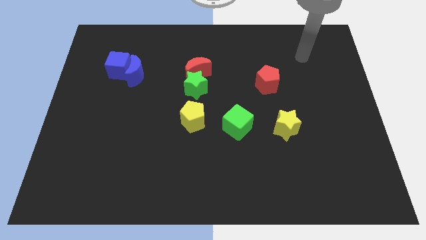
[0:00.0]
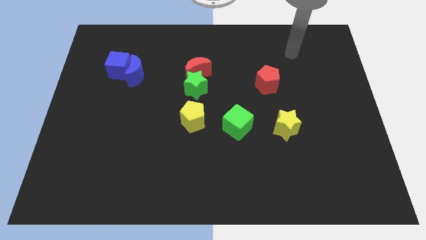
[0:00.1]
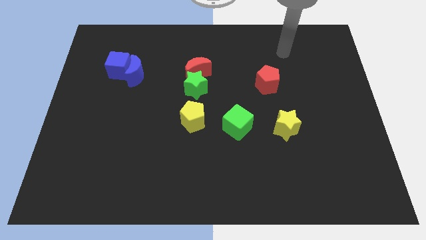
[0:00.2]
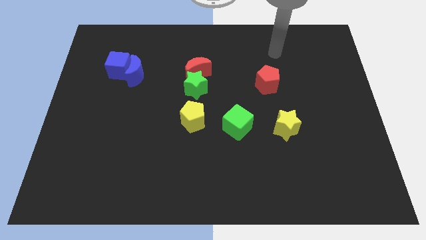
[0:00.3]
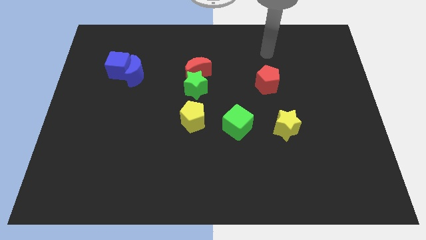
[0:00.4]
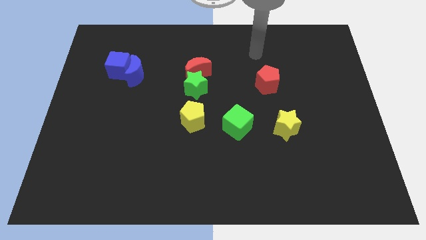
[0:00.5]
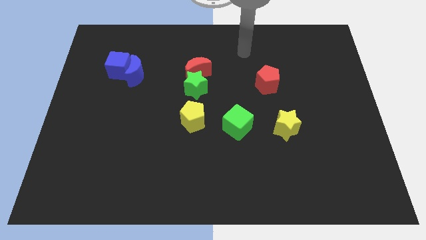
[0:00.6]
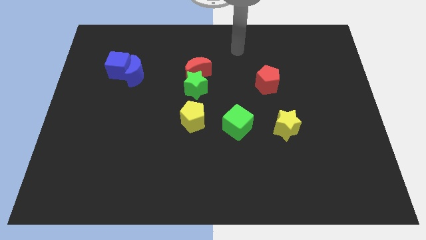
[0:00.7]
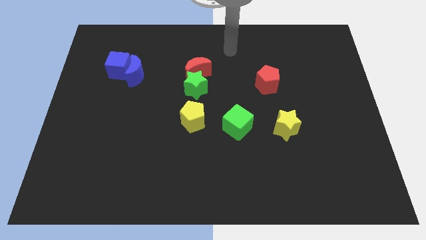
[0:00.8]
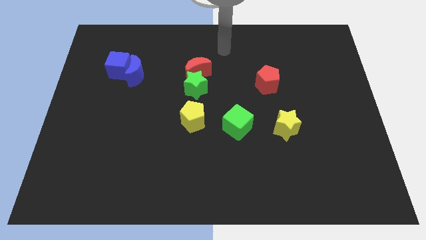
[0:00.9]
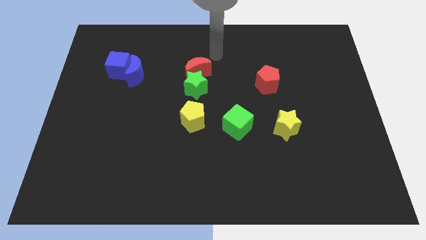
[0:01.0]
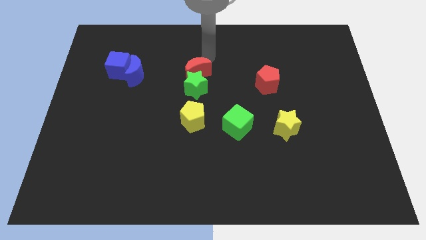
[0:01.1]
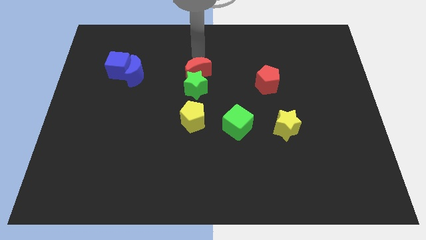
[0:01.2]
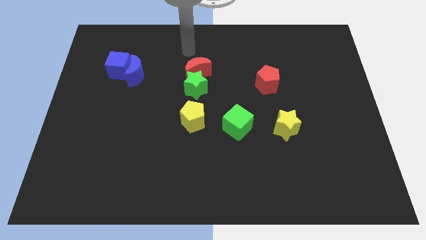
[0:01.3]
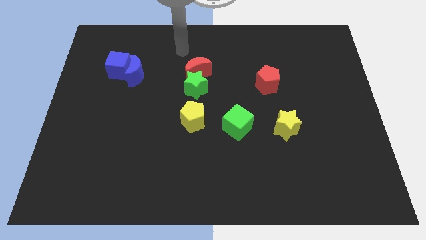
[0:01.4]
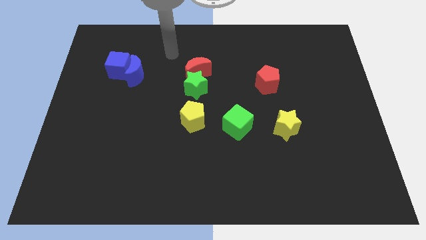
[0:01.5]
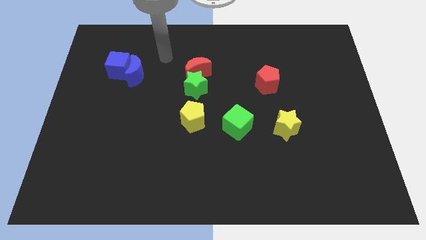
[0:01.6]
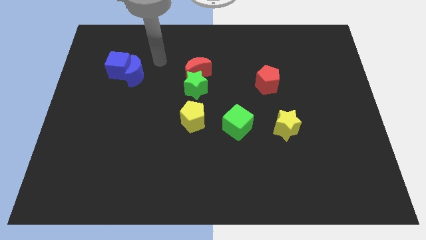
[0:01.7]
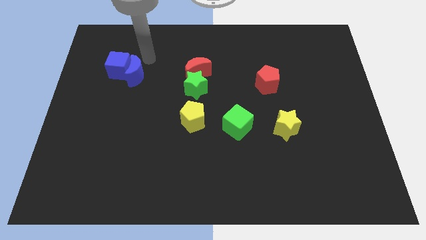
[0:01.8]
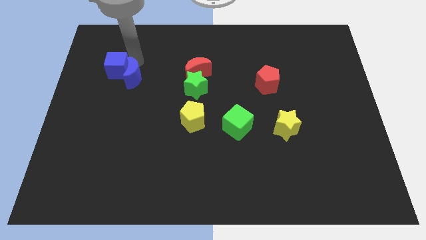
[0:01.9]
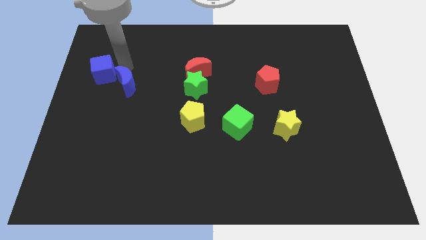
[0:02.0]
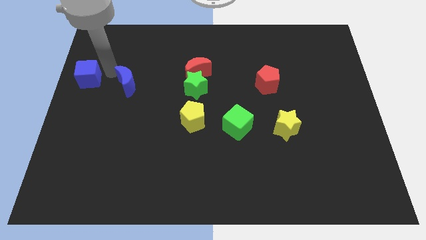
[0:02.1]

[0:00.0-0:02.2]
move the blue moon away from the blue cube

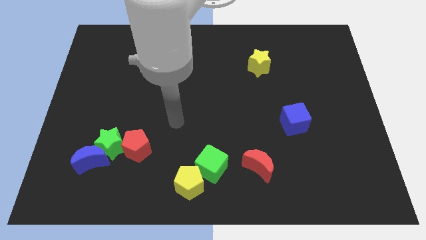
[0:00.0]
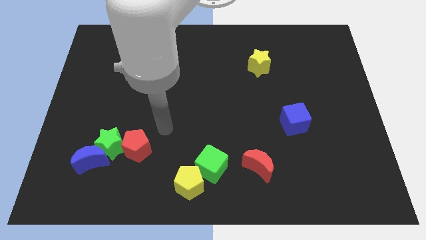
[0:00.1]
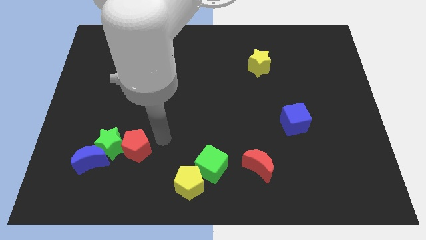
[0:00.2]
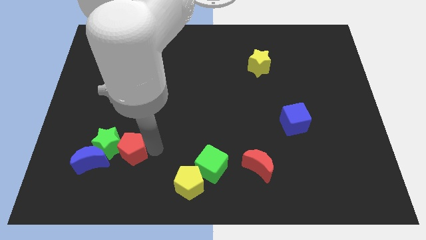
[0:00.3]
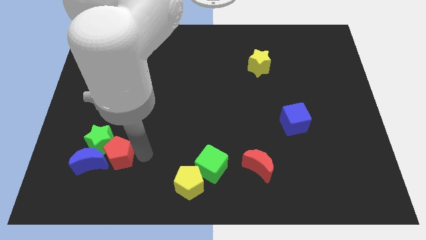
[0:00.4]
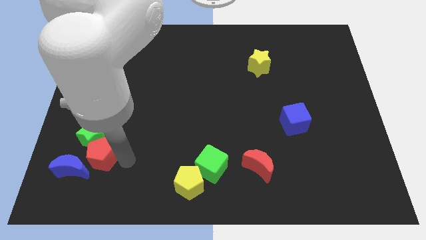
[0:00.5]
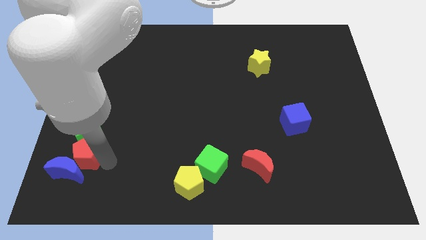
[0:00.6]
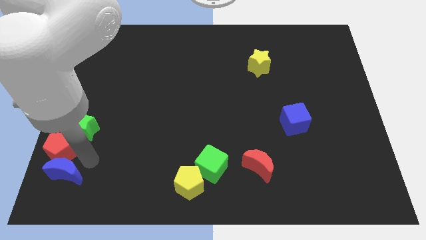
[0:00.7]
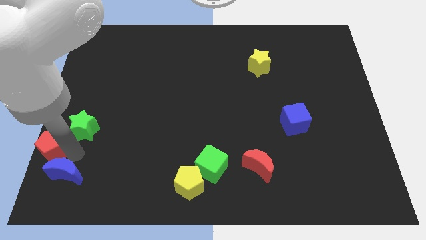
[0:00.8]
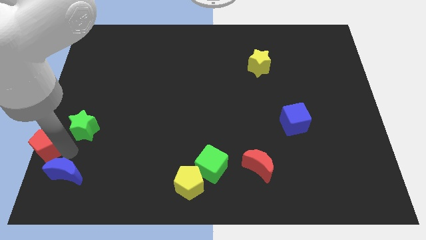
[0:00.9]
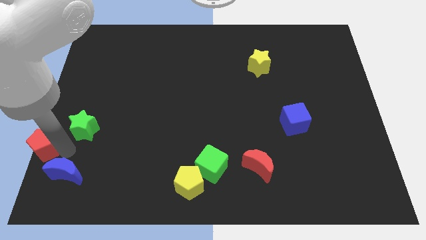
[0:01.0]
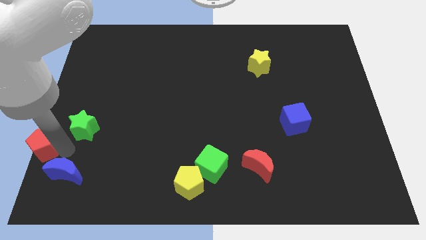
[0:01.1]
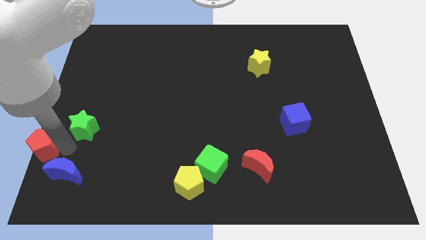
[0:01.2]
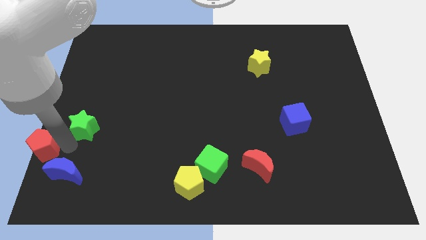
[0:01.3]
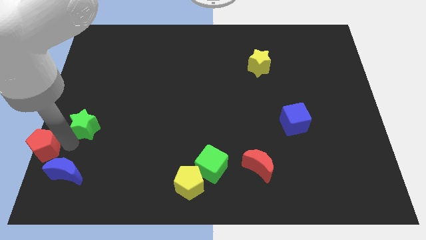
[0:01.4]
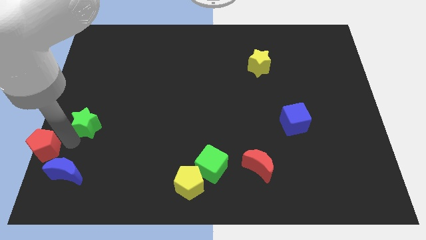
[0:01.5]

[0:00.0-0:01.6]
move the green star away from the blue moon and red pentagon

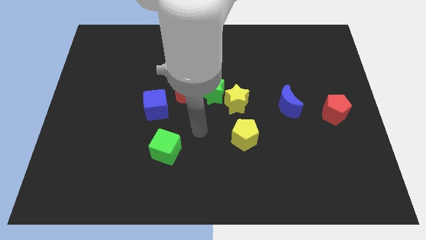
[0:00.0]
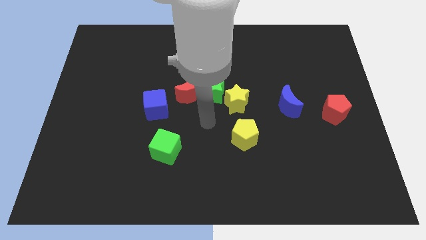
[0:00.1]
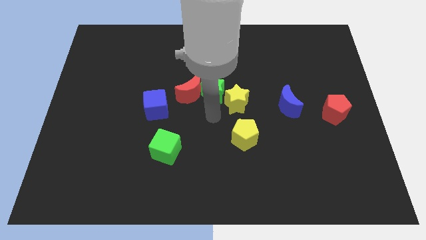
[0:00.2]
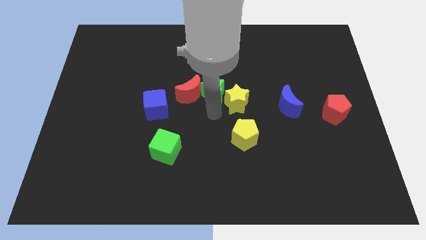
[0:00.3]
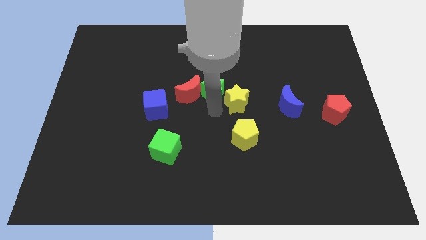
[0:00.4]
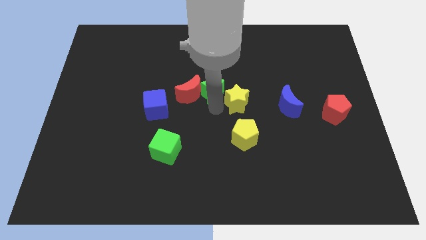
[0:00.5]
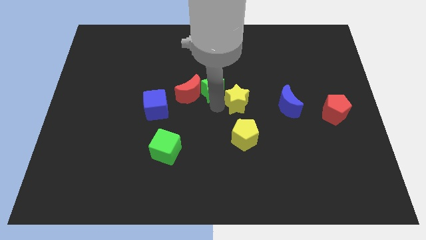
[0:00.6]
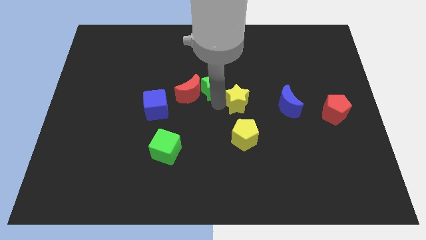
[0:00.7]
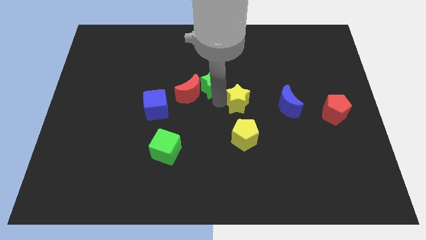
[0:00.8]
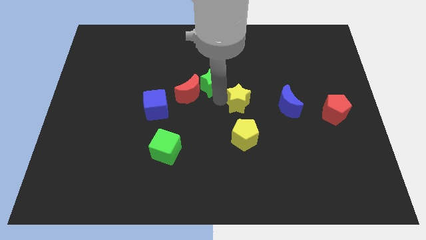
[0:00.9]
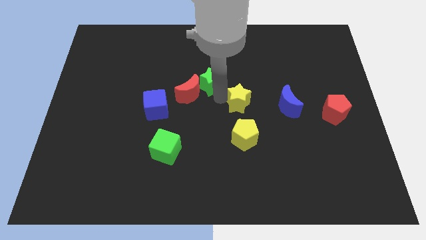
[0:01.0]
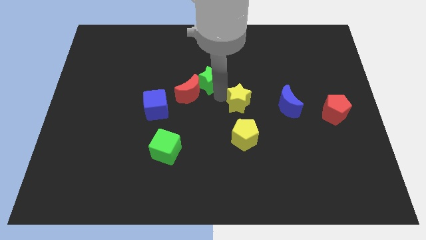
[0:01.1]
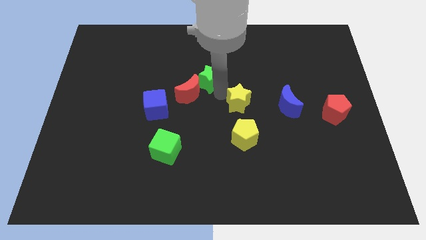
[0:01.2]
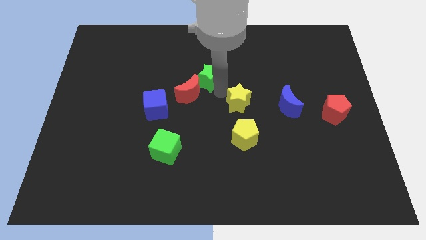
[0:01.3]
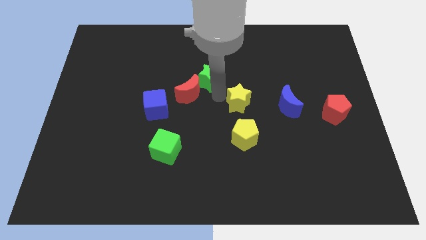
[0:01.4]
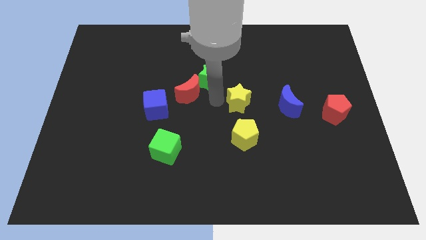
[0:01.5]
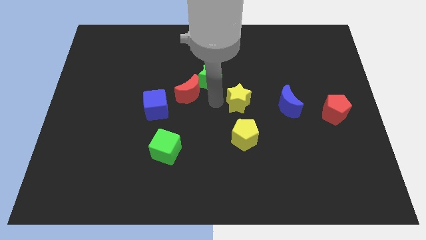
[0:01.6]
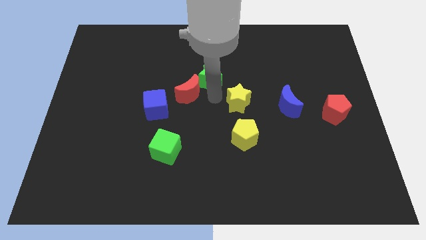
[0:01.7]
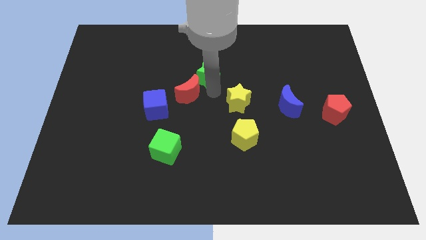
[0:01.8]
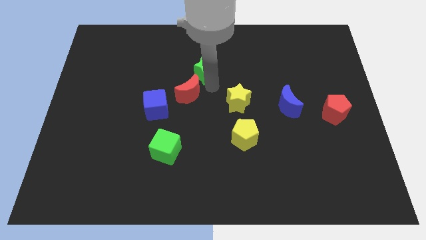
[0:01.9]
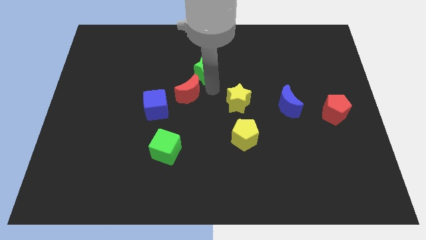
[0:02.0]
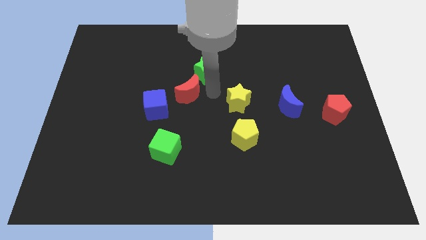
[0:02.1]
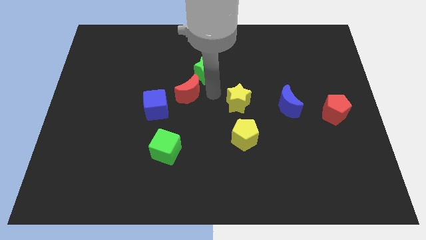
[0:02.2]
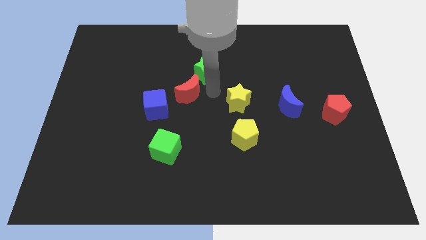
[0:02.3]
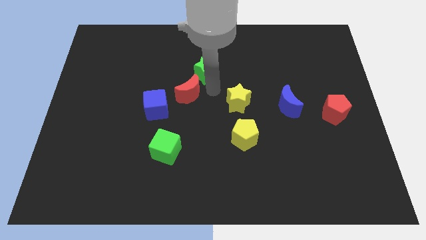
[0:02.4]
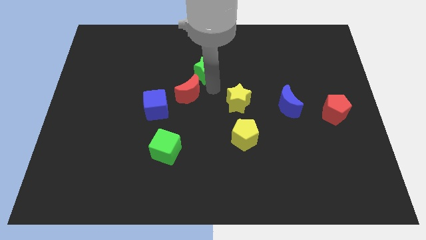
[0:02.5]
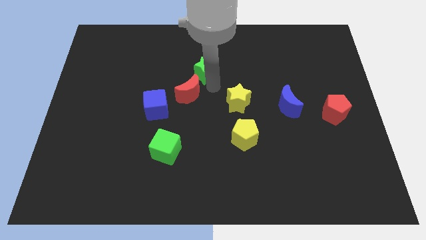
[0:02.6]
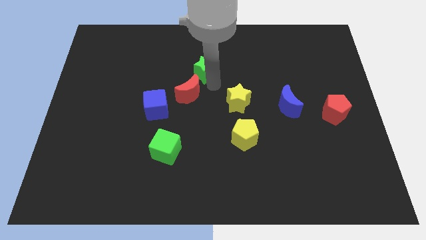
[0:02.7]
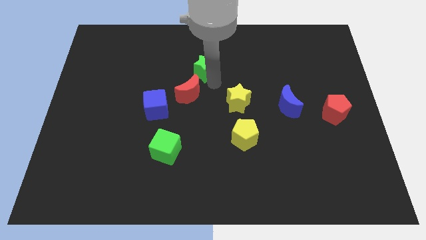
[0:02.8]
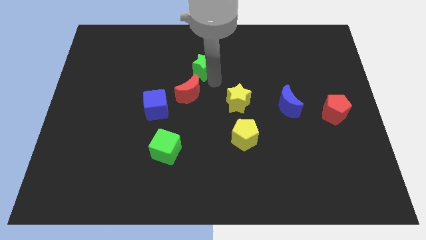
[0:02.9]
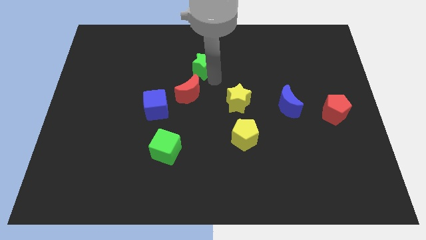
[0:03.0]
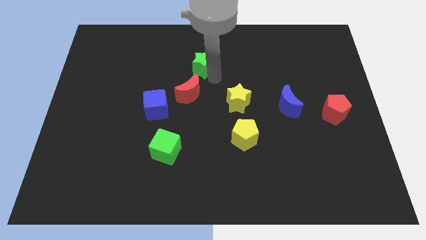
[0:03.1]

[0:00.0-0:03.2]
move the green star away from the red moon and yellow star

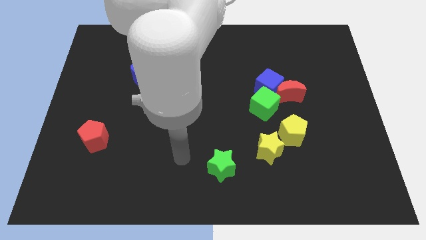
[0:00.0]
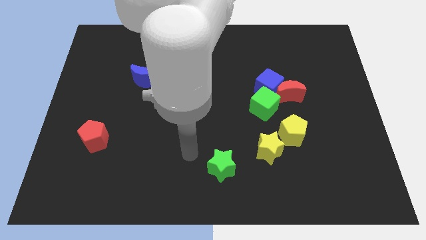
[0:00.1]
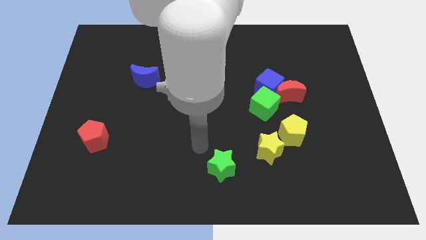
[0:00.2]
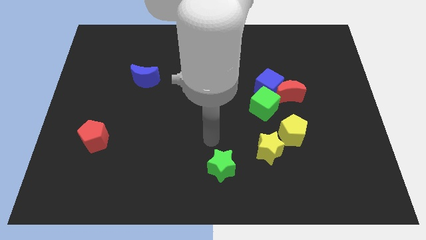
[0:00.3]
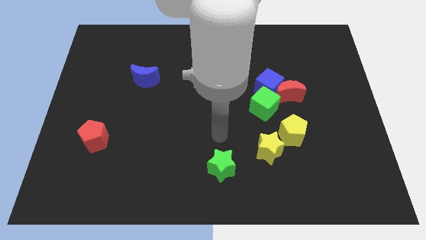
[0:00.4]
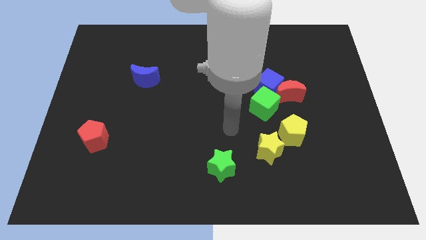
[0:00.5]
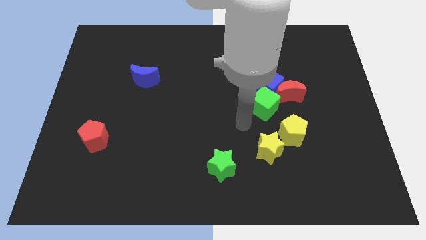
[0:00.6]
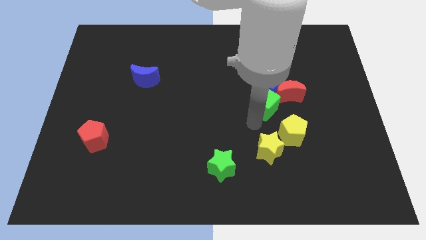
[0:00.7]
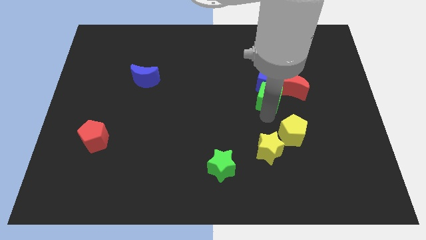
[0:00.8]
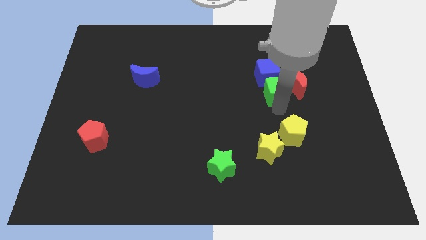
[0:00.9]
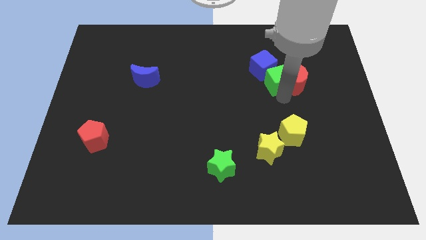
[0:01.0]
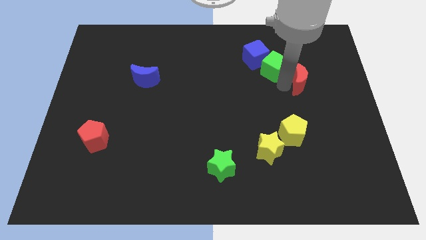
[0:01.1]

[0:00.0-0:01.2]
separate the blue cube from the red moon and green cube

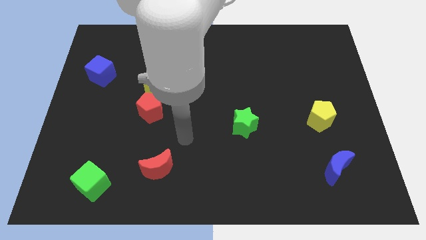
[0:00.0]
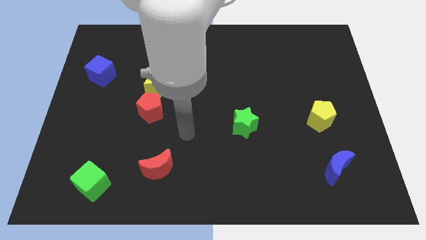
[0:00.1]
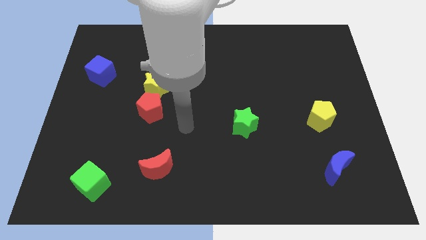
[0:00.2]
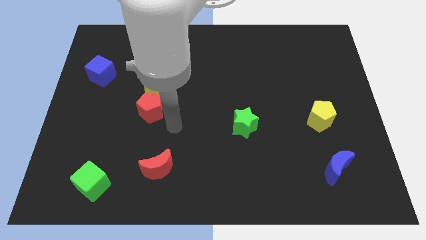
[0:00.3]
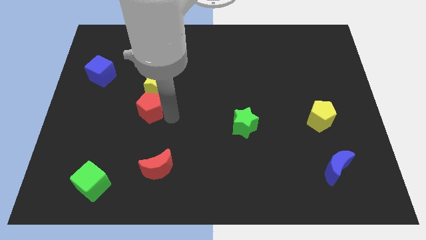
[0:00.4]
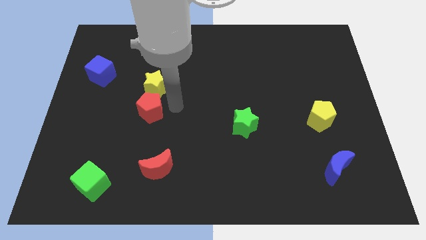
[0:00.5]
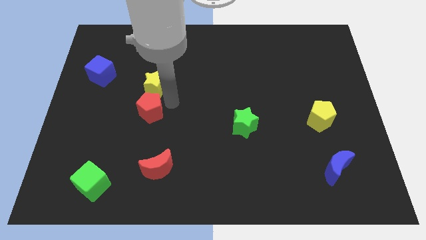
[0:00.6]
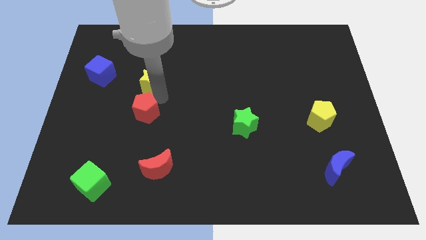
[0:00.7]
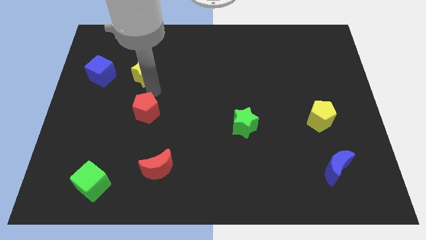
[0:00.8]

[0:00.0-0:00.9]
separate the red pentagon from the yellow star

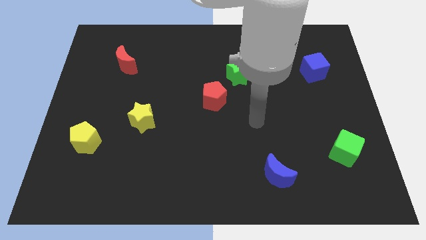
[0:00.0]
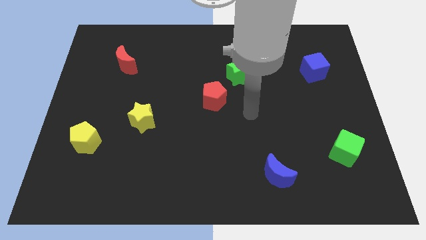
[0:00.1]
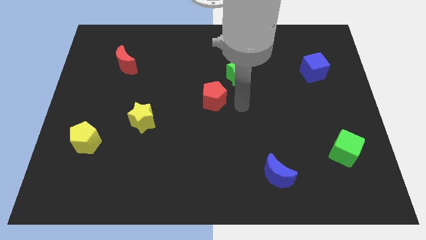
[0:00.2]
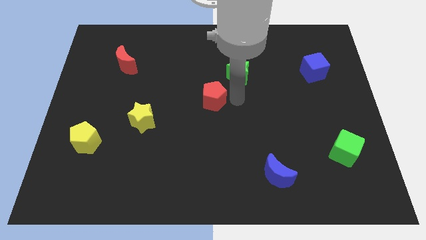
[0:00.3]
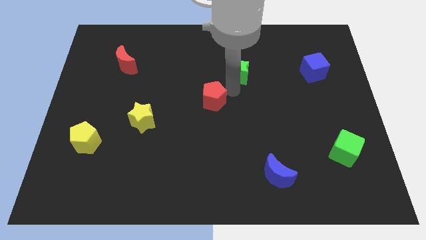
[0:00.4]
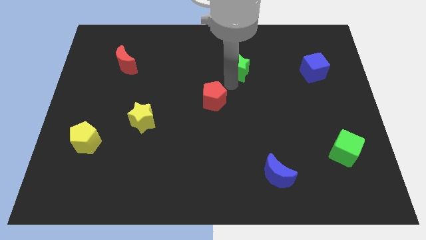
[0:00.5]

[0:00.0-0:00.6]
pull the red pentagon apart from the green star
